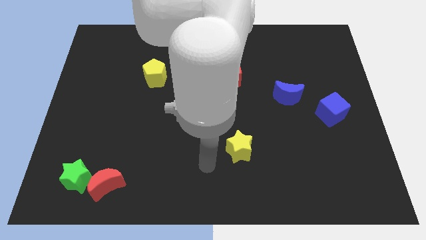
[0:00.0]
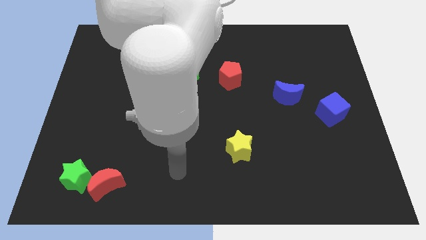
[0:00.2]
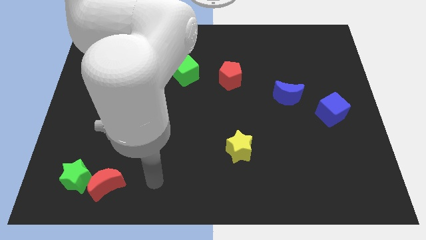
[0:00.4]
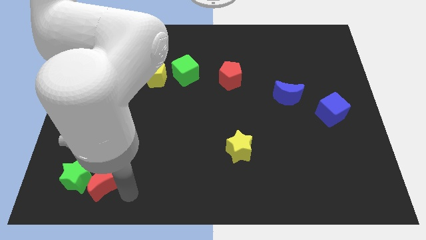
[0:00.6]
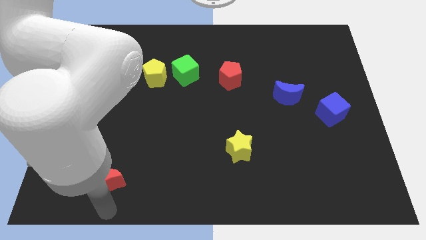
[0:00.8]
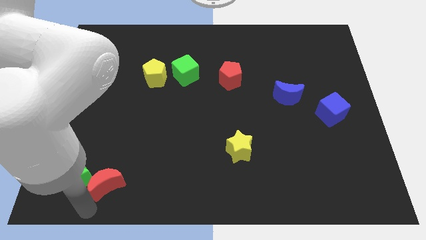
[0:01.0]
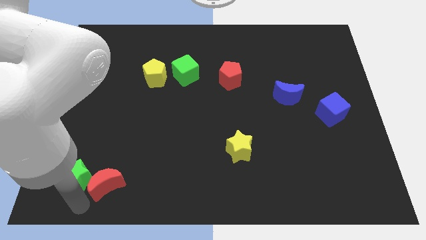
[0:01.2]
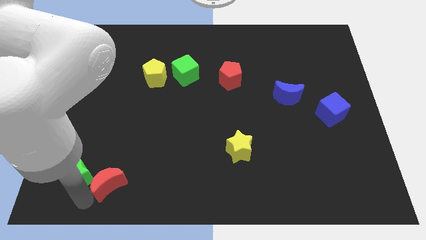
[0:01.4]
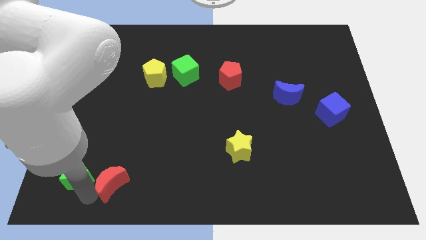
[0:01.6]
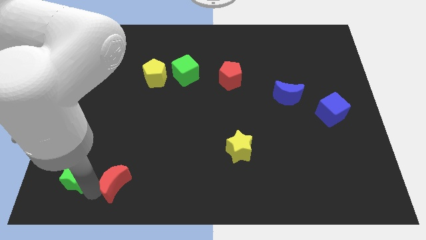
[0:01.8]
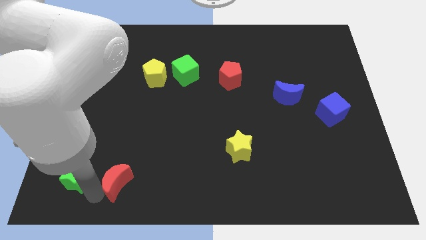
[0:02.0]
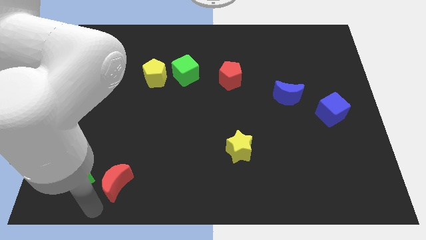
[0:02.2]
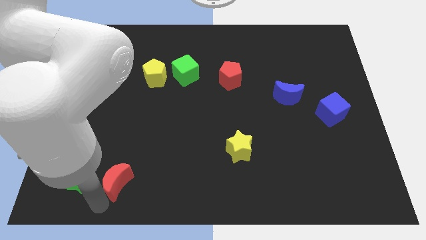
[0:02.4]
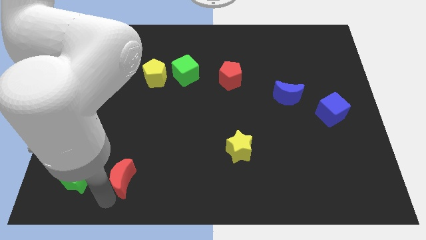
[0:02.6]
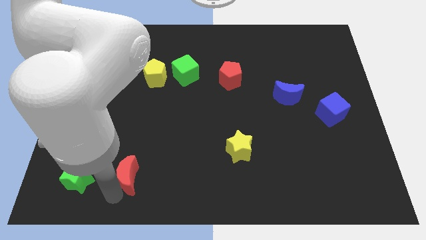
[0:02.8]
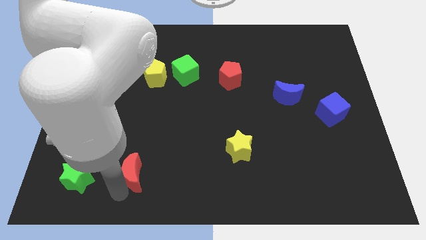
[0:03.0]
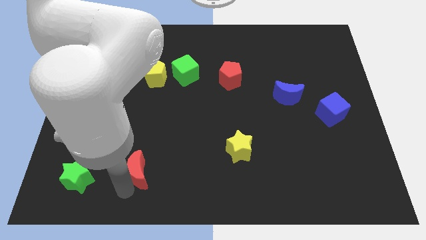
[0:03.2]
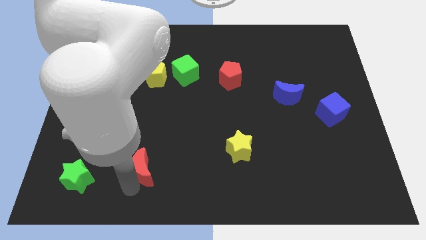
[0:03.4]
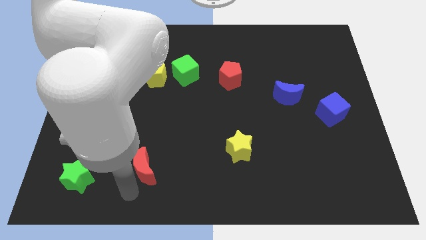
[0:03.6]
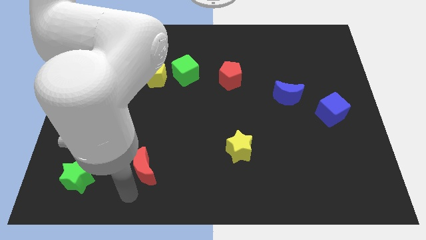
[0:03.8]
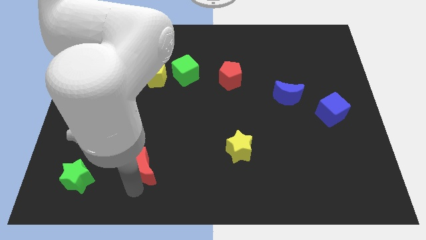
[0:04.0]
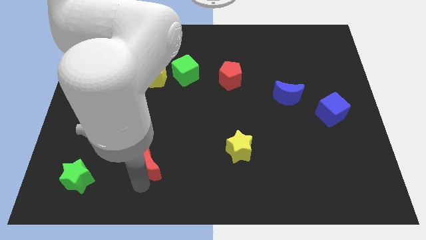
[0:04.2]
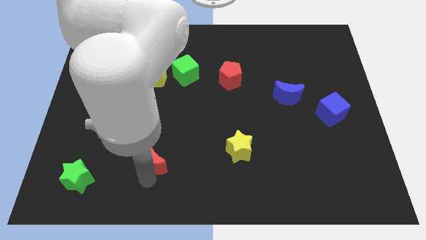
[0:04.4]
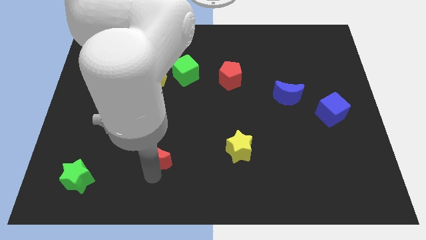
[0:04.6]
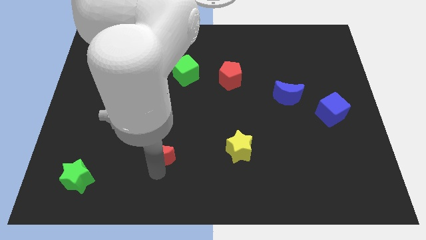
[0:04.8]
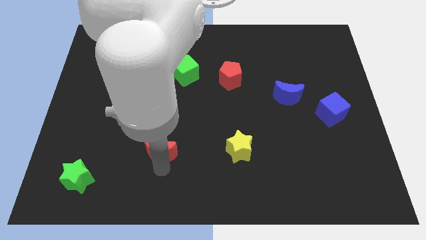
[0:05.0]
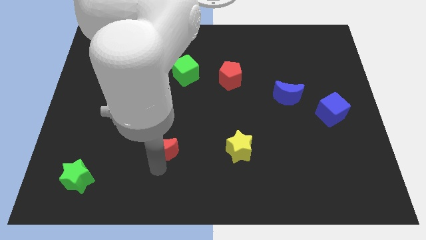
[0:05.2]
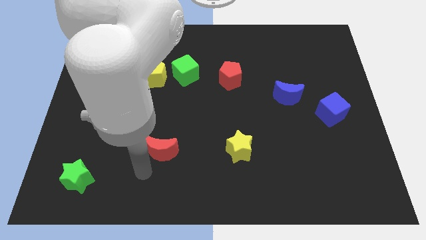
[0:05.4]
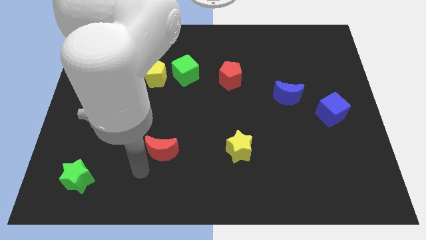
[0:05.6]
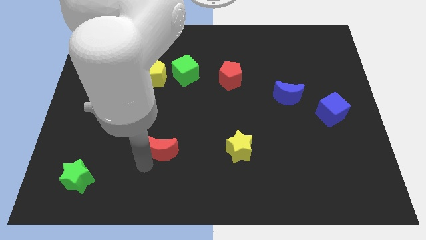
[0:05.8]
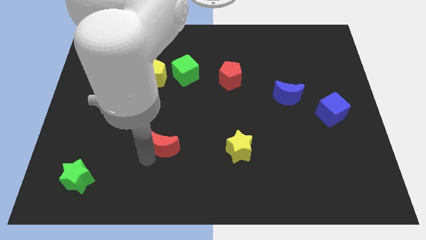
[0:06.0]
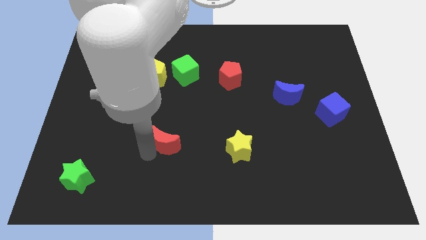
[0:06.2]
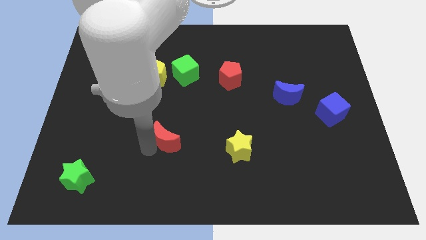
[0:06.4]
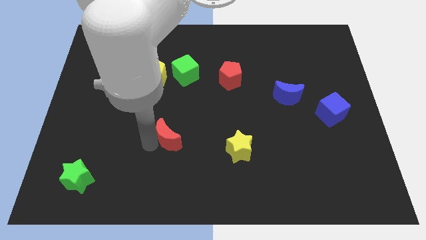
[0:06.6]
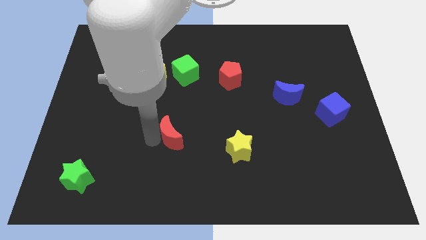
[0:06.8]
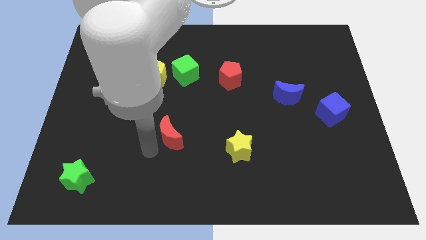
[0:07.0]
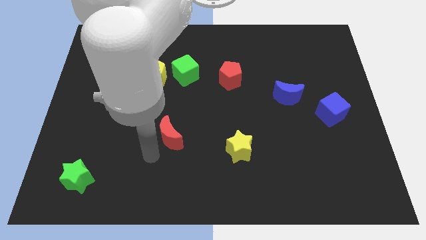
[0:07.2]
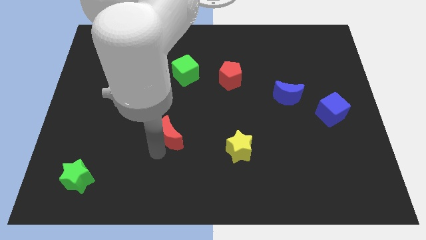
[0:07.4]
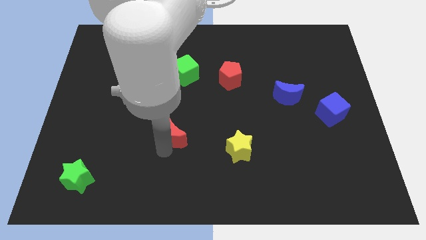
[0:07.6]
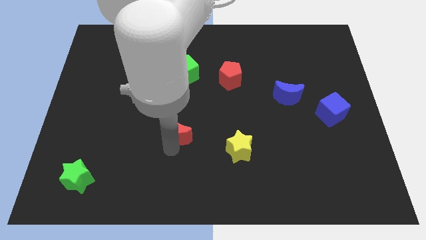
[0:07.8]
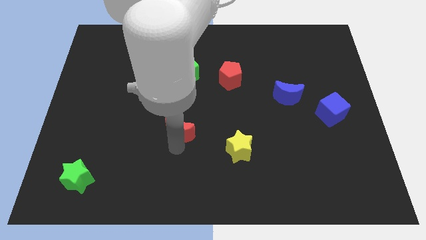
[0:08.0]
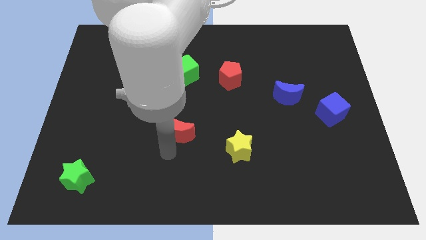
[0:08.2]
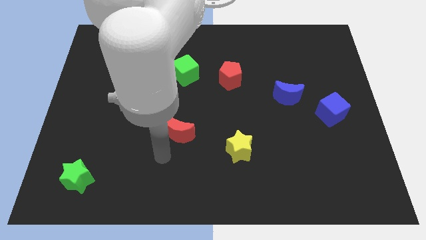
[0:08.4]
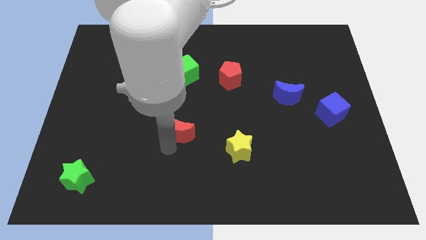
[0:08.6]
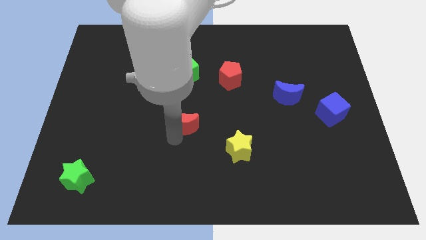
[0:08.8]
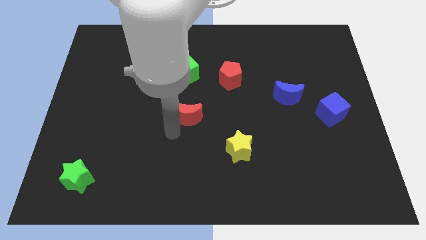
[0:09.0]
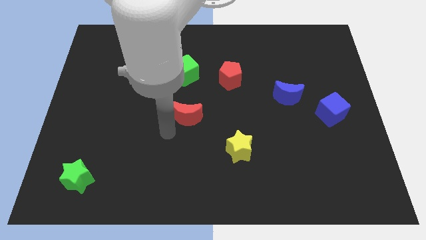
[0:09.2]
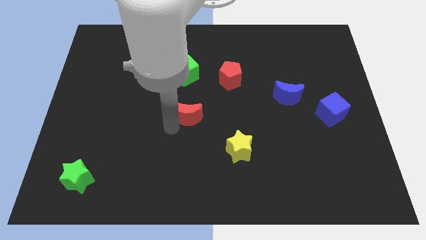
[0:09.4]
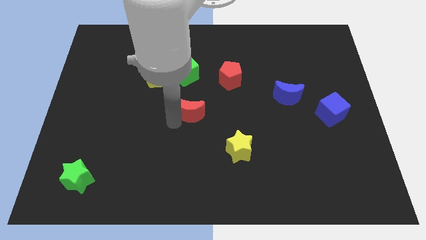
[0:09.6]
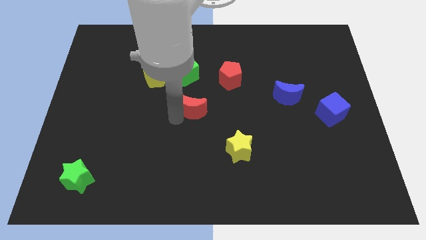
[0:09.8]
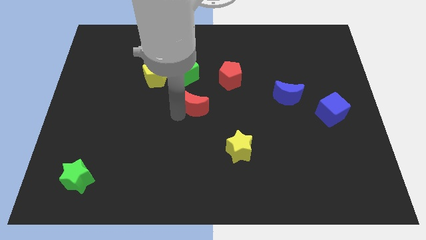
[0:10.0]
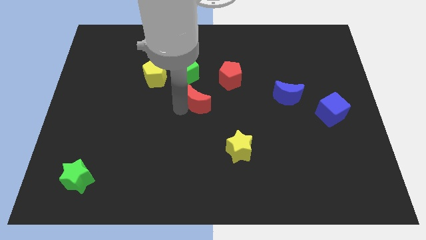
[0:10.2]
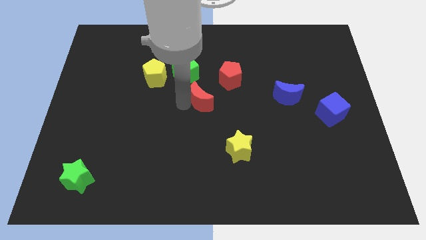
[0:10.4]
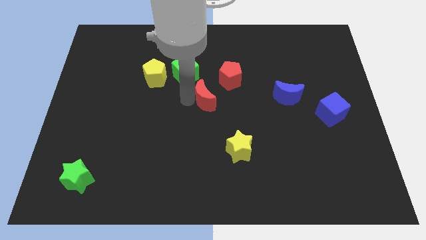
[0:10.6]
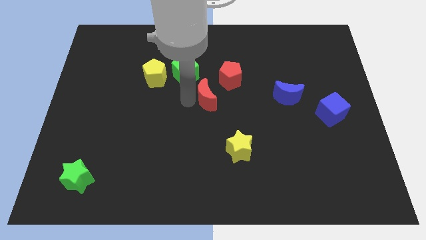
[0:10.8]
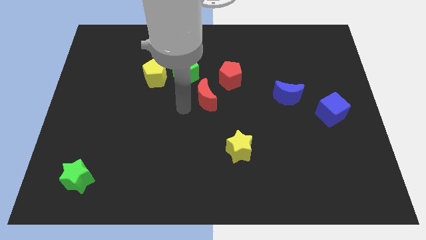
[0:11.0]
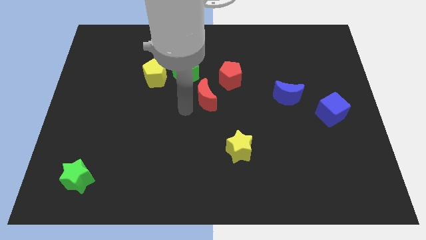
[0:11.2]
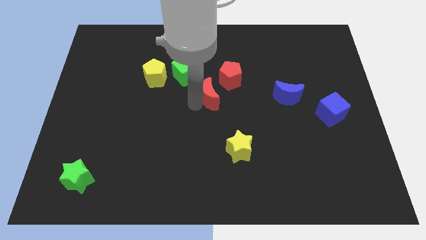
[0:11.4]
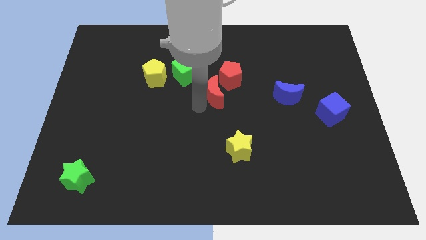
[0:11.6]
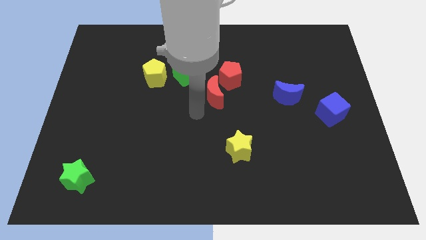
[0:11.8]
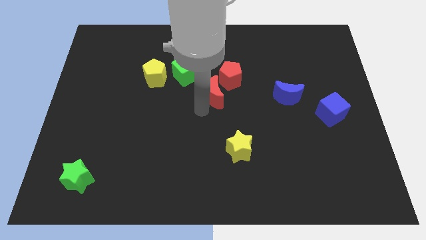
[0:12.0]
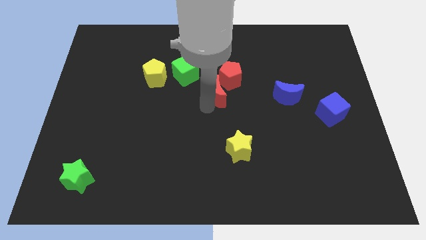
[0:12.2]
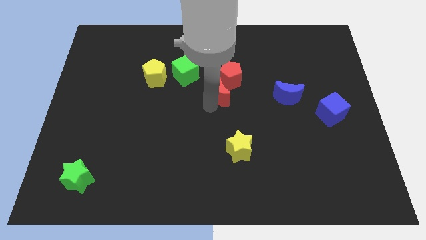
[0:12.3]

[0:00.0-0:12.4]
slide the red moon close to the red pentagon

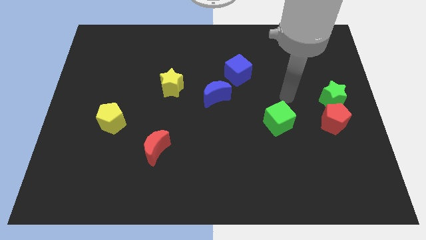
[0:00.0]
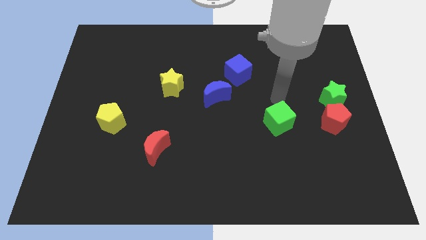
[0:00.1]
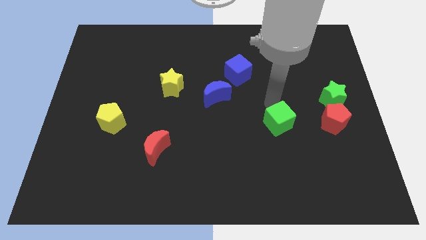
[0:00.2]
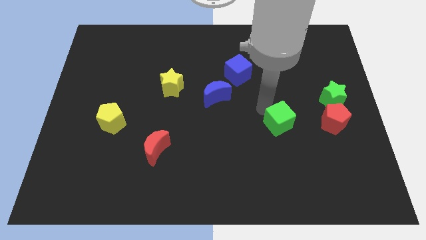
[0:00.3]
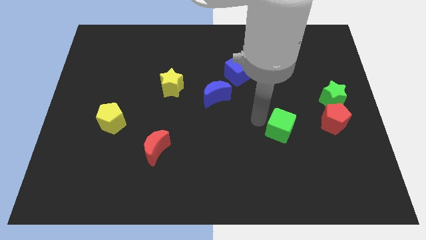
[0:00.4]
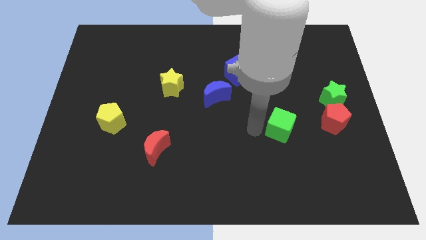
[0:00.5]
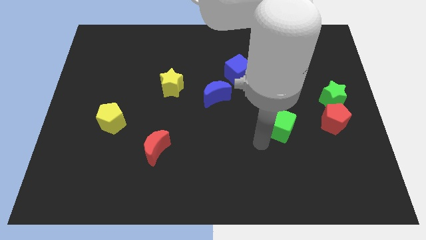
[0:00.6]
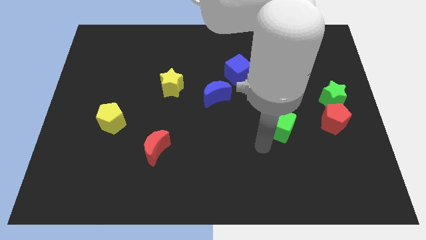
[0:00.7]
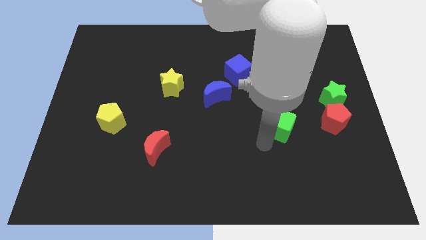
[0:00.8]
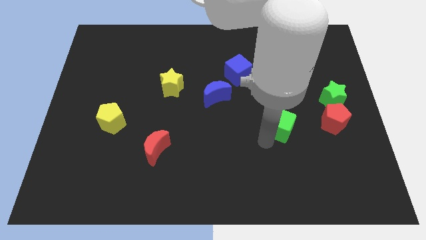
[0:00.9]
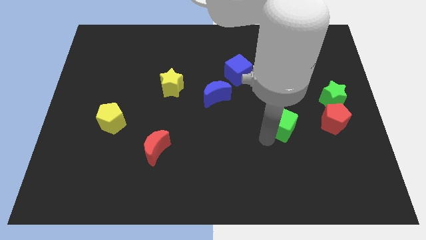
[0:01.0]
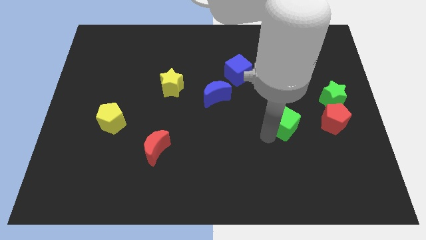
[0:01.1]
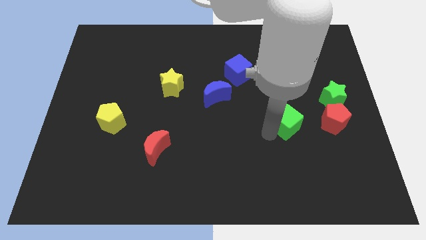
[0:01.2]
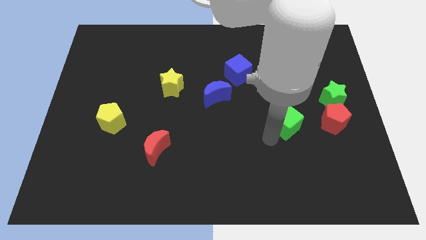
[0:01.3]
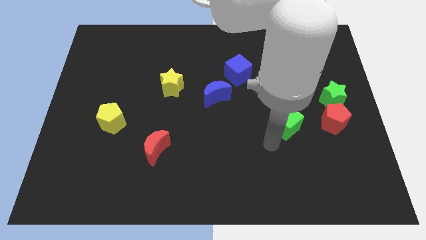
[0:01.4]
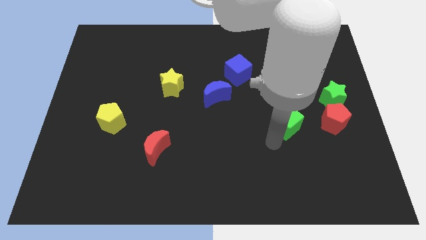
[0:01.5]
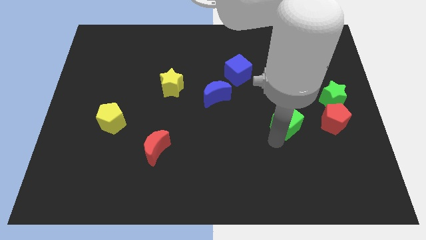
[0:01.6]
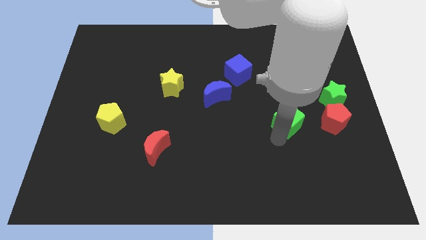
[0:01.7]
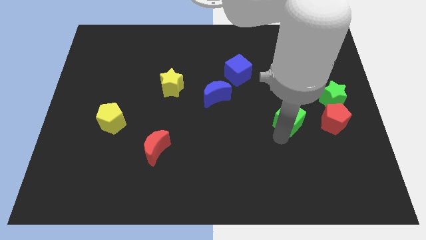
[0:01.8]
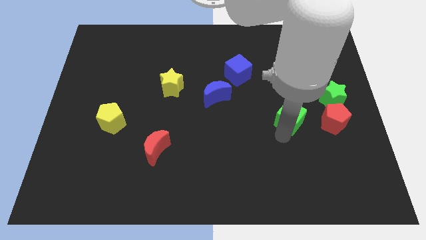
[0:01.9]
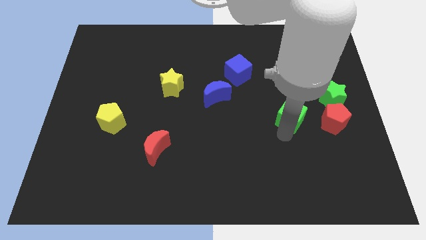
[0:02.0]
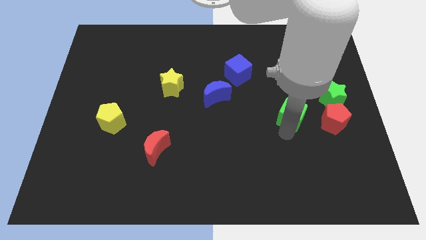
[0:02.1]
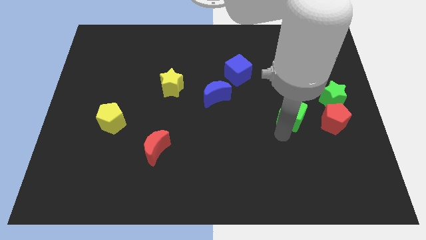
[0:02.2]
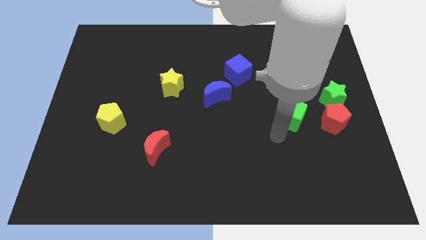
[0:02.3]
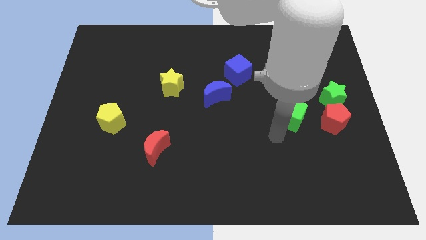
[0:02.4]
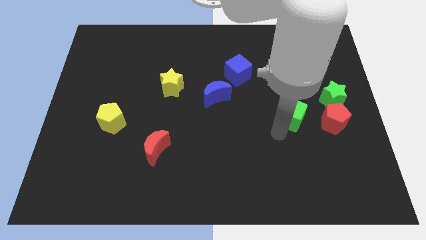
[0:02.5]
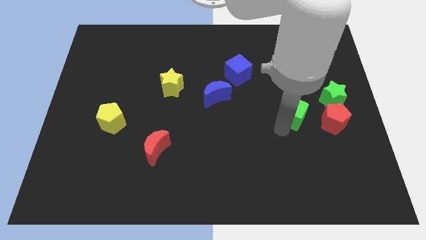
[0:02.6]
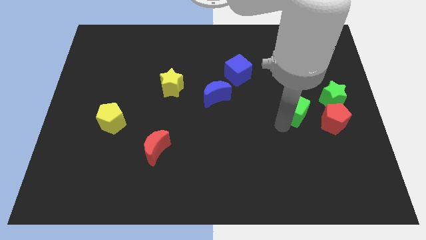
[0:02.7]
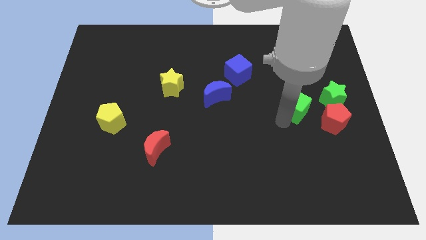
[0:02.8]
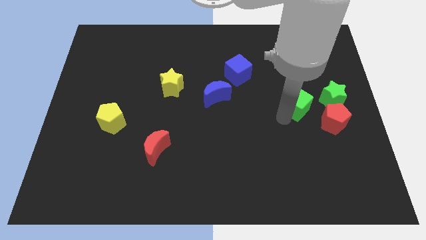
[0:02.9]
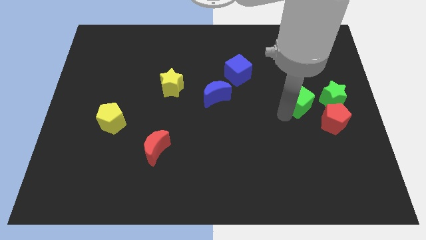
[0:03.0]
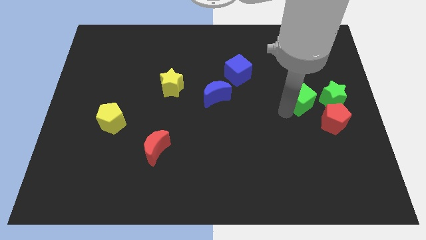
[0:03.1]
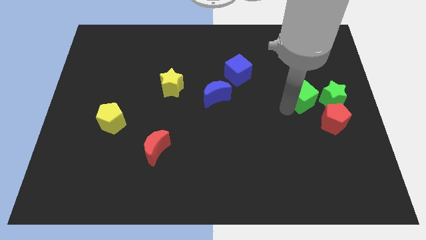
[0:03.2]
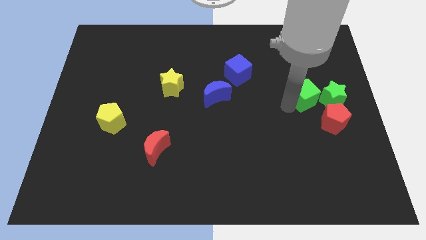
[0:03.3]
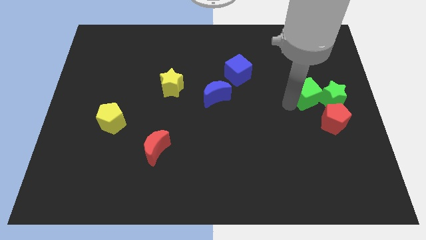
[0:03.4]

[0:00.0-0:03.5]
move the green cube to the green star
